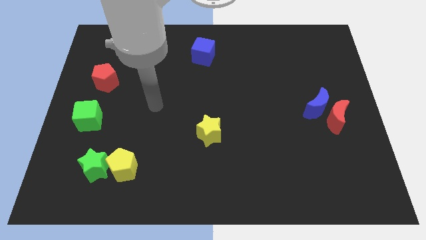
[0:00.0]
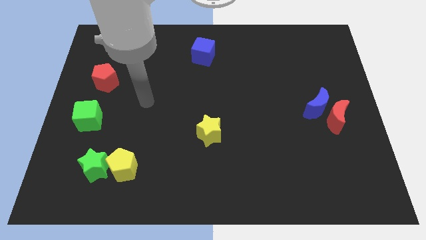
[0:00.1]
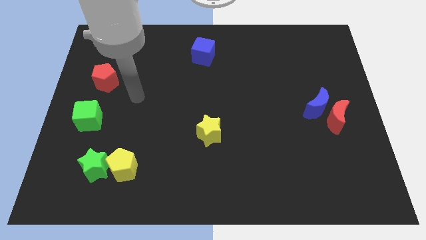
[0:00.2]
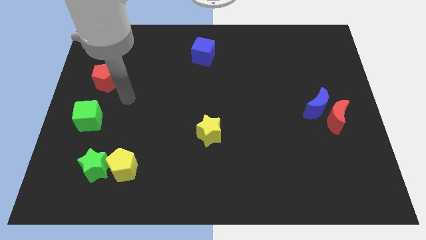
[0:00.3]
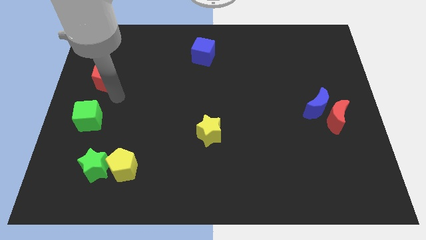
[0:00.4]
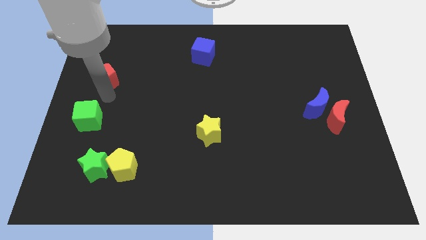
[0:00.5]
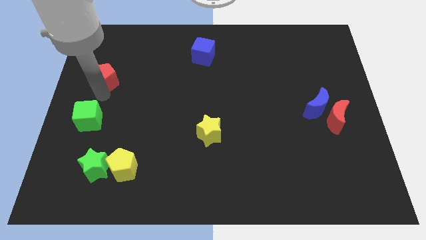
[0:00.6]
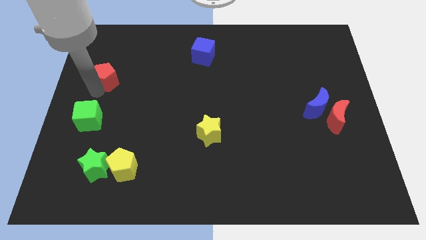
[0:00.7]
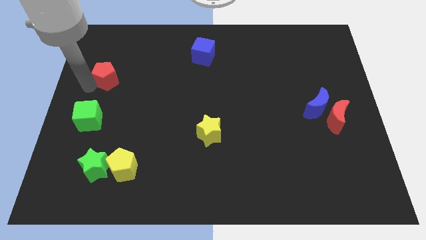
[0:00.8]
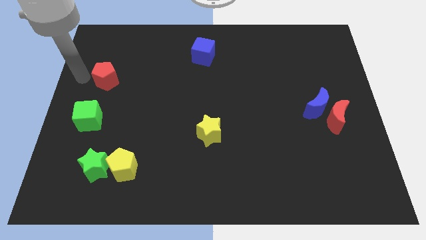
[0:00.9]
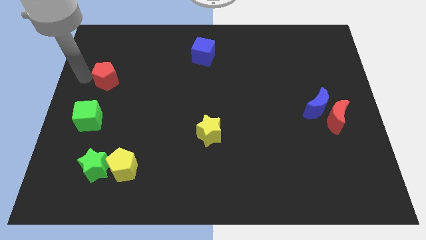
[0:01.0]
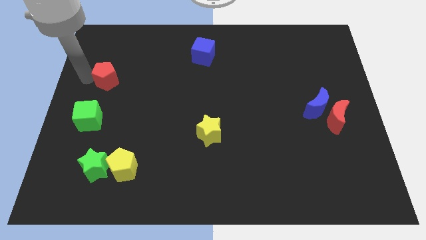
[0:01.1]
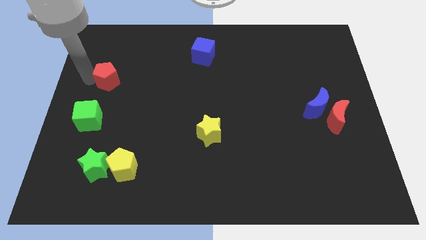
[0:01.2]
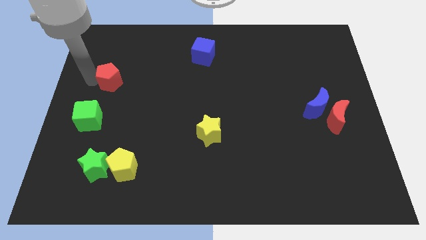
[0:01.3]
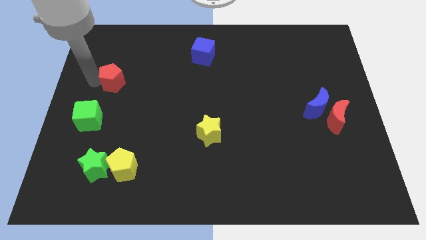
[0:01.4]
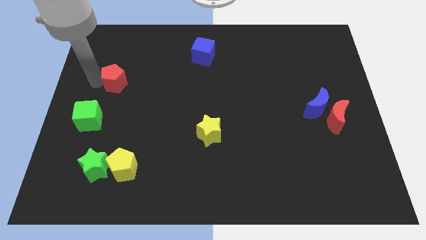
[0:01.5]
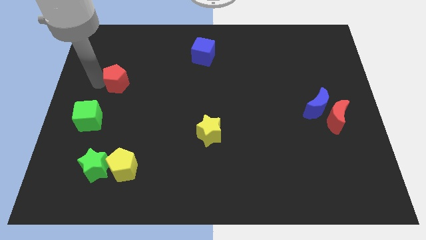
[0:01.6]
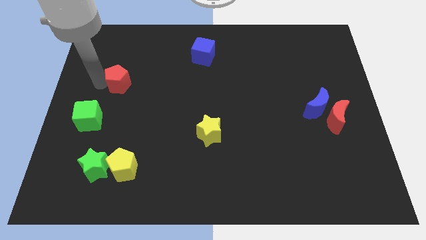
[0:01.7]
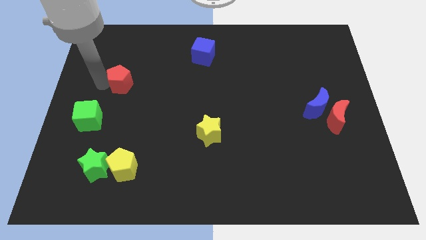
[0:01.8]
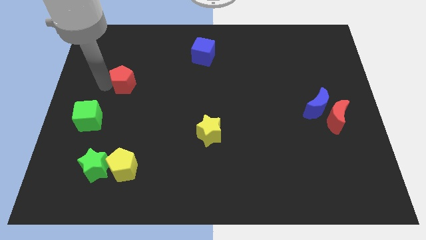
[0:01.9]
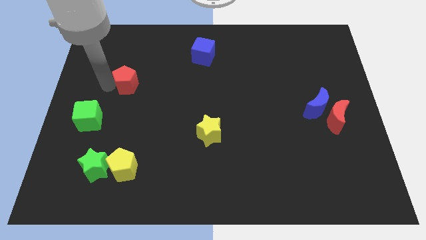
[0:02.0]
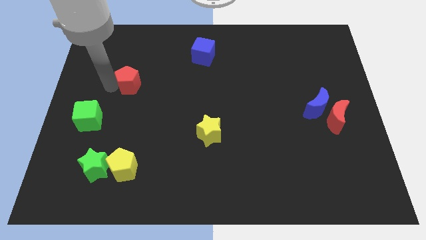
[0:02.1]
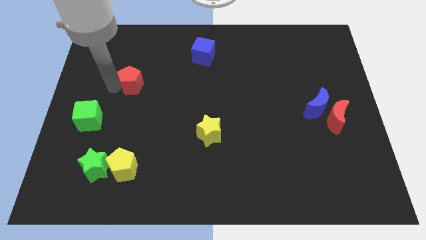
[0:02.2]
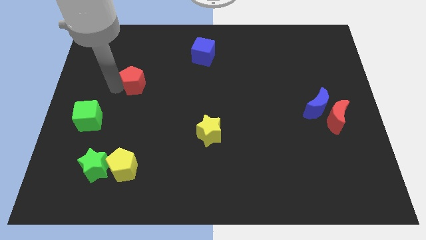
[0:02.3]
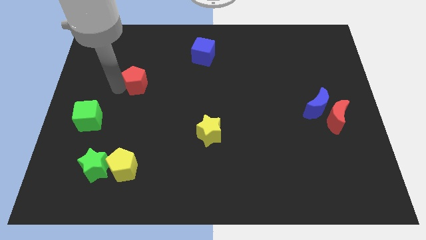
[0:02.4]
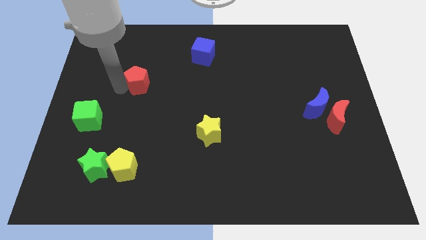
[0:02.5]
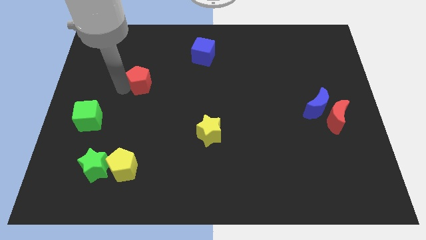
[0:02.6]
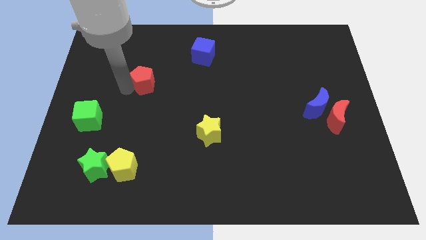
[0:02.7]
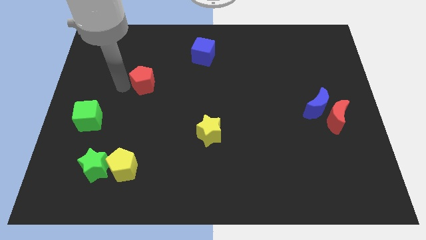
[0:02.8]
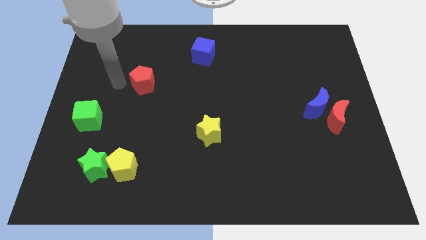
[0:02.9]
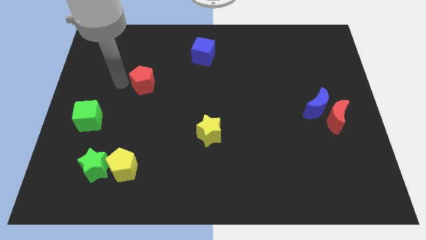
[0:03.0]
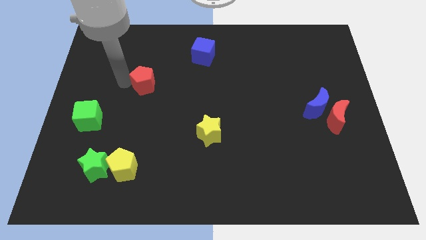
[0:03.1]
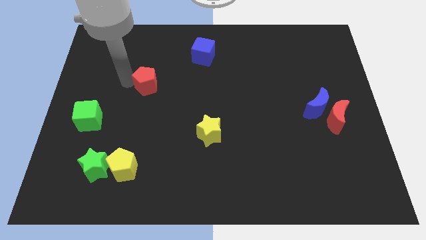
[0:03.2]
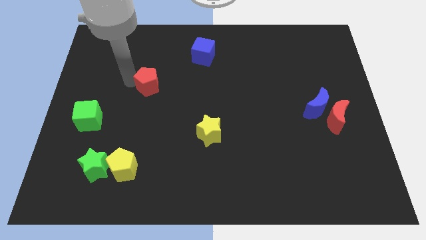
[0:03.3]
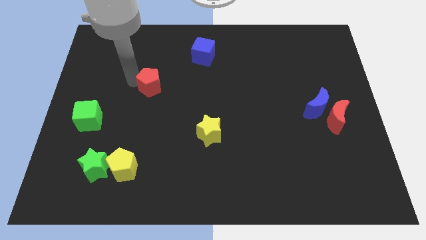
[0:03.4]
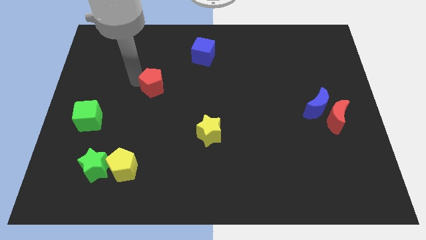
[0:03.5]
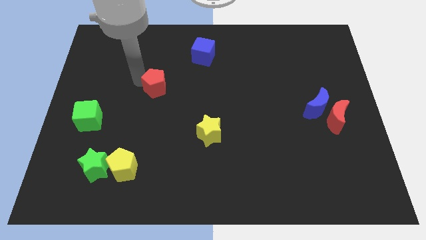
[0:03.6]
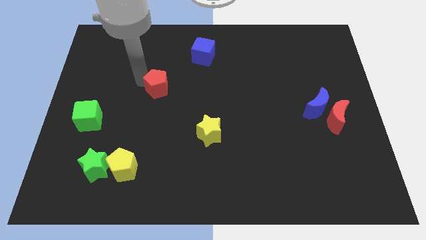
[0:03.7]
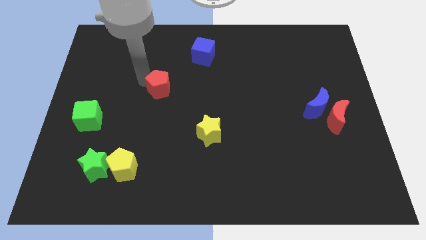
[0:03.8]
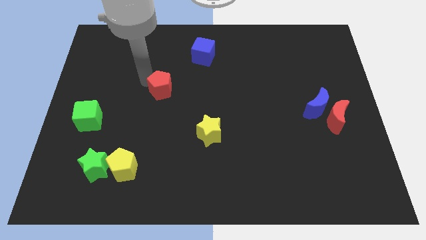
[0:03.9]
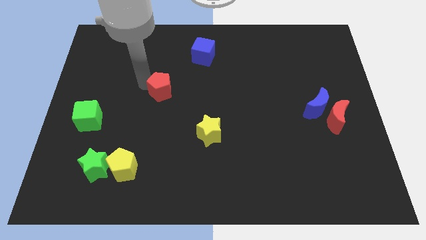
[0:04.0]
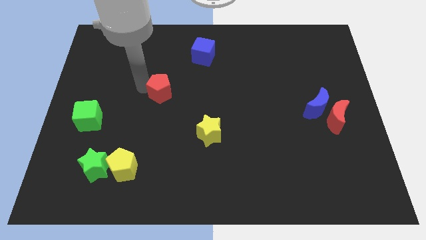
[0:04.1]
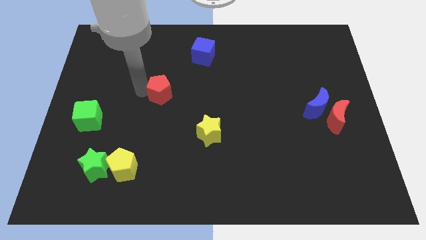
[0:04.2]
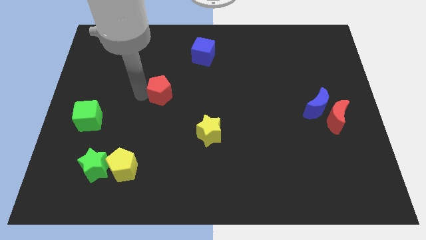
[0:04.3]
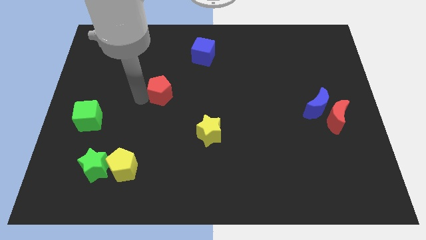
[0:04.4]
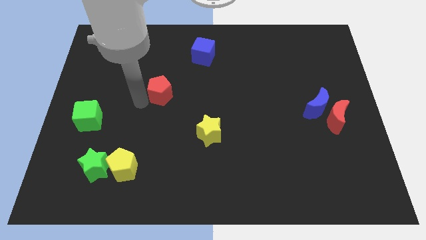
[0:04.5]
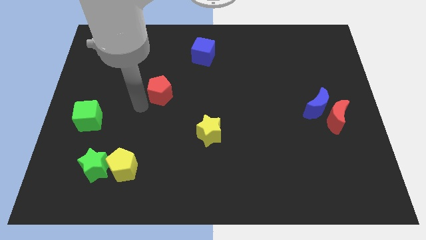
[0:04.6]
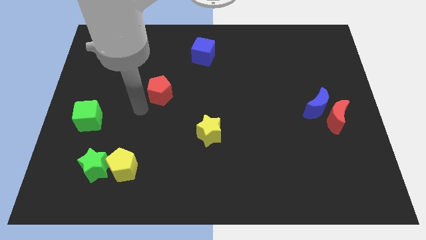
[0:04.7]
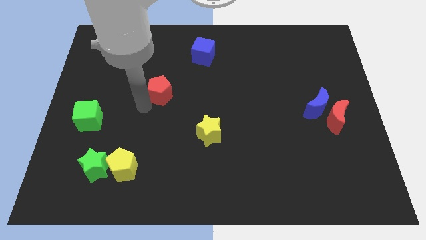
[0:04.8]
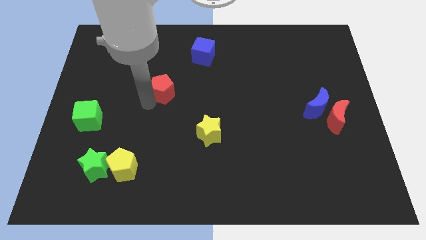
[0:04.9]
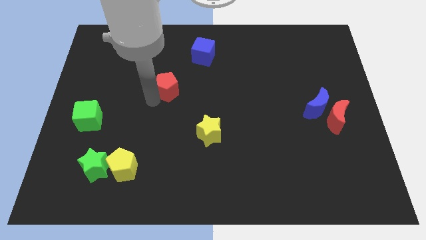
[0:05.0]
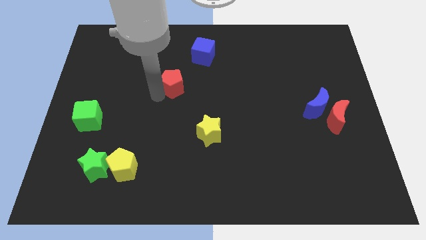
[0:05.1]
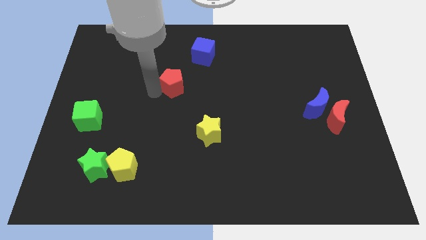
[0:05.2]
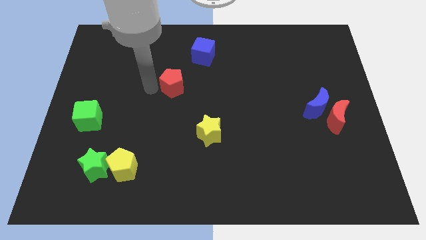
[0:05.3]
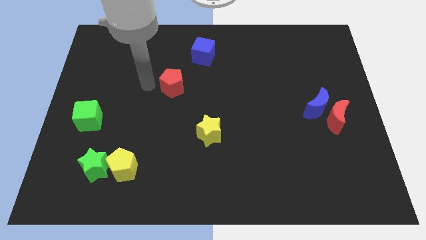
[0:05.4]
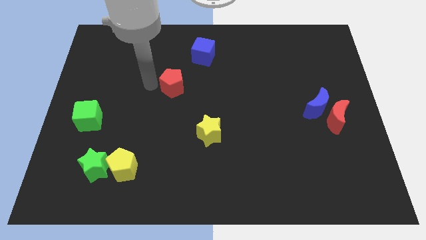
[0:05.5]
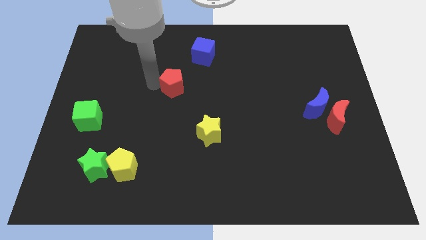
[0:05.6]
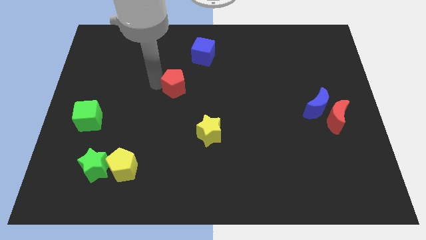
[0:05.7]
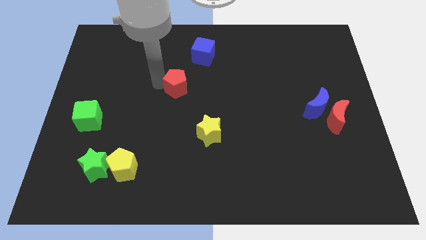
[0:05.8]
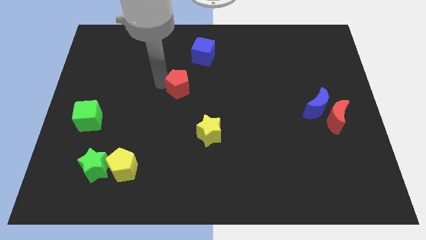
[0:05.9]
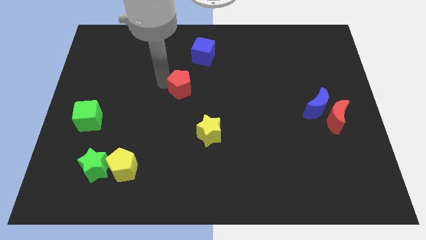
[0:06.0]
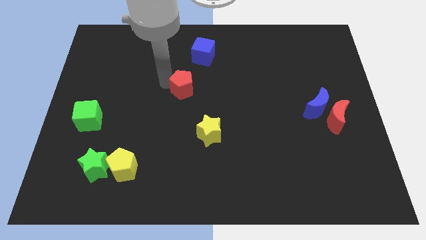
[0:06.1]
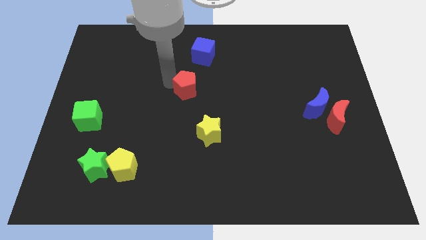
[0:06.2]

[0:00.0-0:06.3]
slide the red pentagon to the right

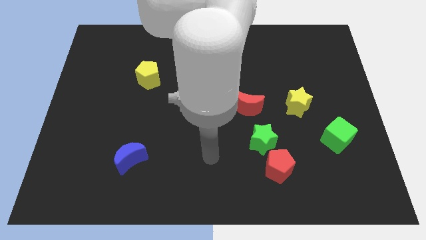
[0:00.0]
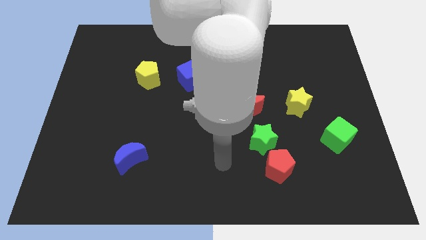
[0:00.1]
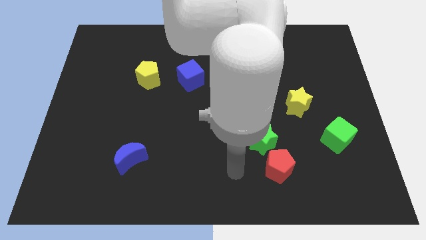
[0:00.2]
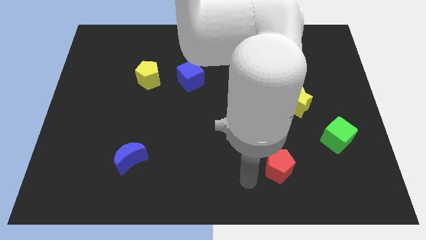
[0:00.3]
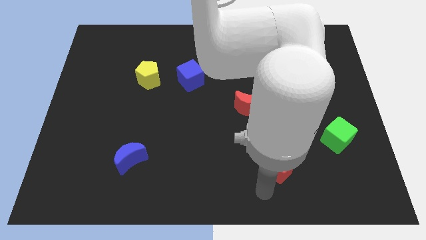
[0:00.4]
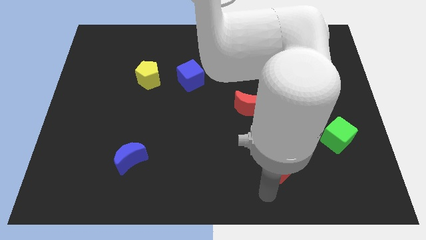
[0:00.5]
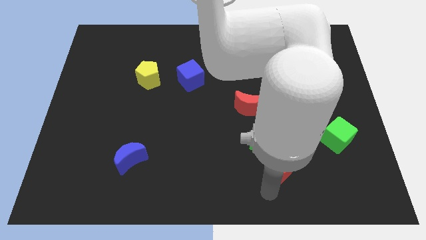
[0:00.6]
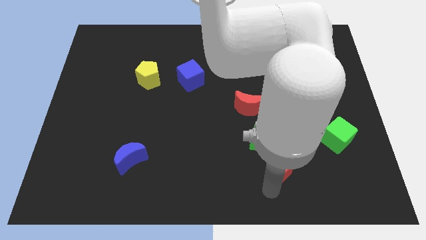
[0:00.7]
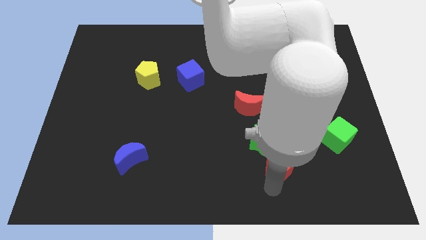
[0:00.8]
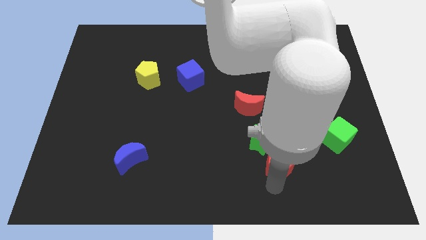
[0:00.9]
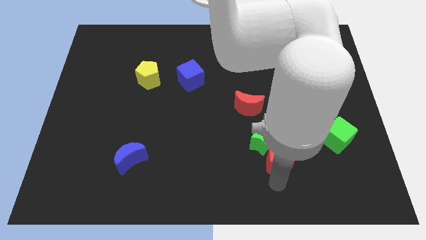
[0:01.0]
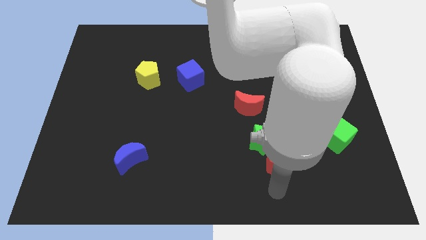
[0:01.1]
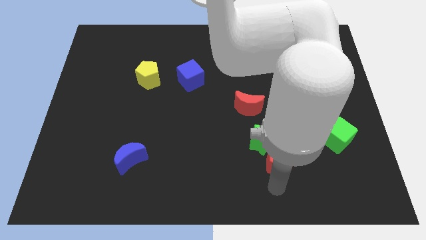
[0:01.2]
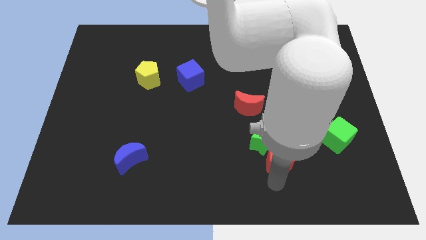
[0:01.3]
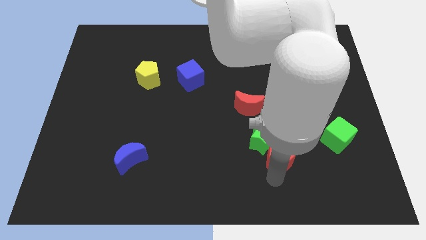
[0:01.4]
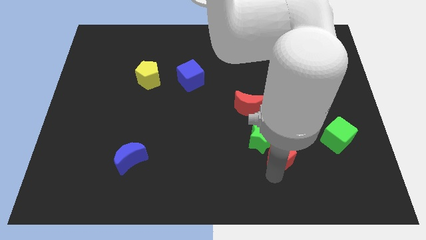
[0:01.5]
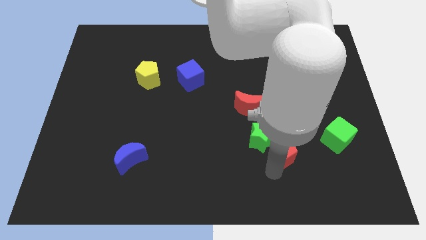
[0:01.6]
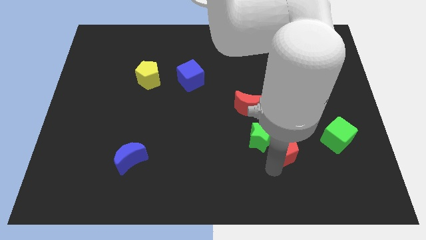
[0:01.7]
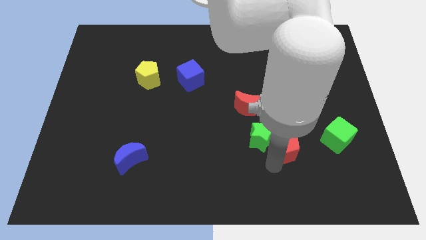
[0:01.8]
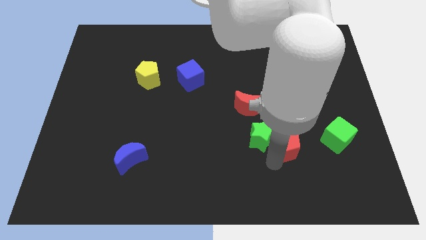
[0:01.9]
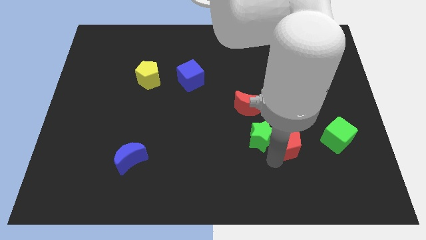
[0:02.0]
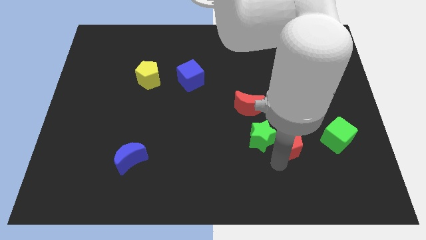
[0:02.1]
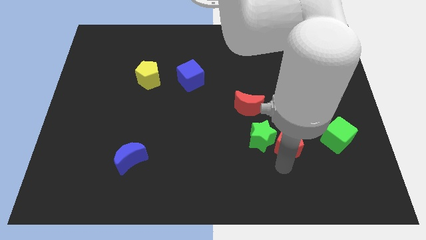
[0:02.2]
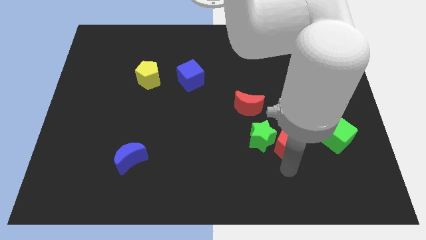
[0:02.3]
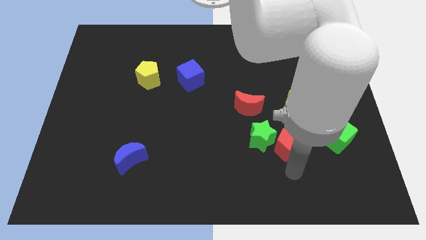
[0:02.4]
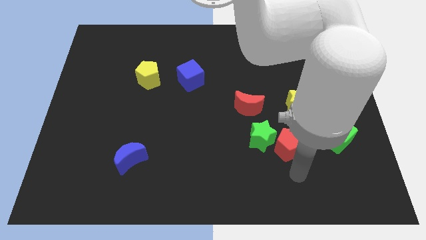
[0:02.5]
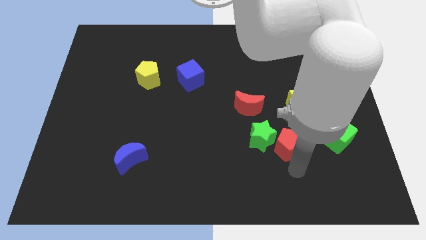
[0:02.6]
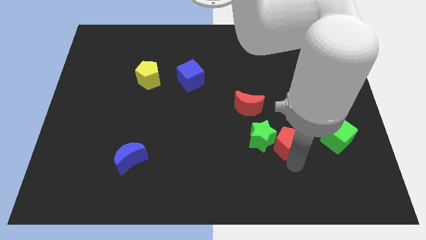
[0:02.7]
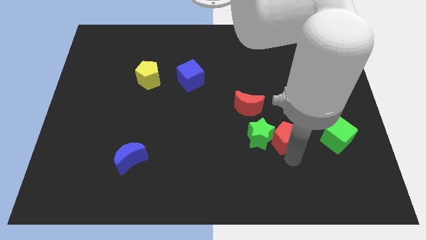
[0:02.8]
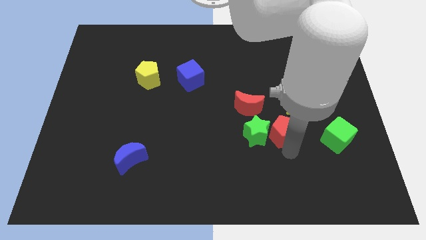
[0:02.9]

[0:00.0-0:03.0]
slide the red pentagon upwards a bit
